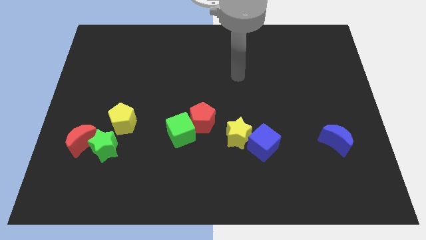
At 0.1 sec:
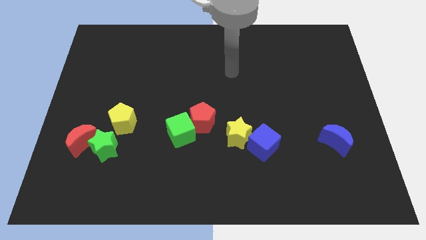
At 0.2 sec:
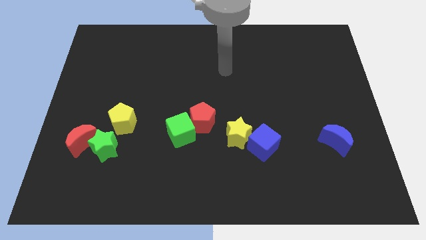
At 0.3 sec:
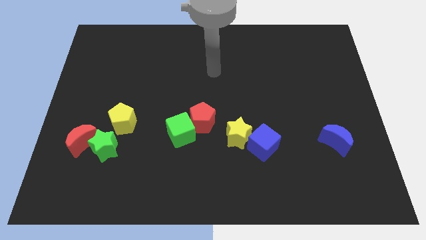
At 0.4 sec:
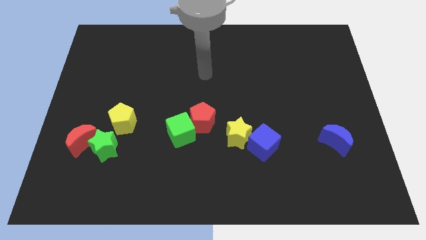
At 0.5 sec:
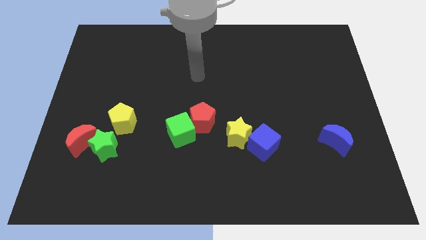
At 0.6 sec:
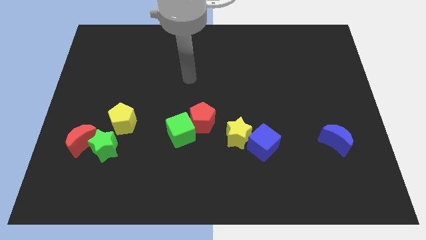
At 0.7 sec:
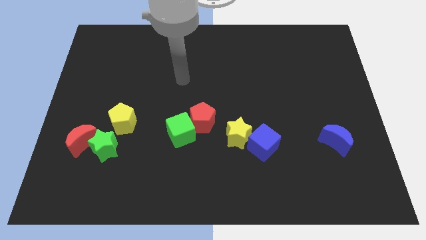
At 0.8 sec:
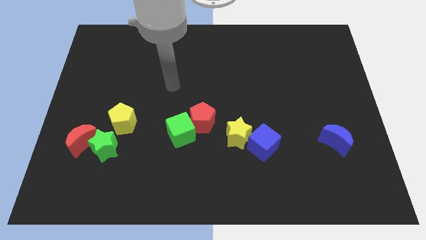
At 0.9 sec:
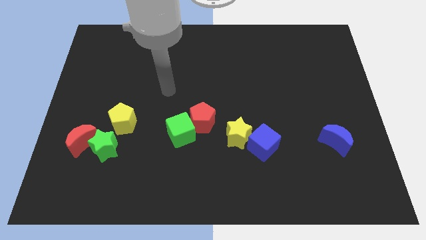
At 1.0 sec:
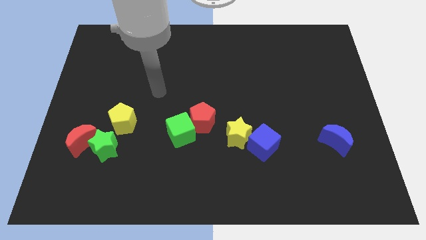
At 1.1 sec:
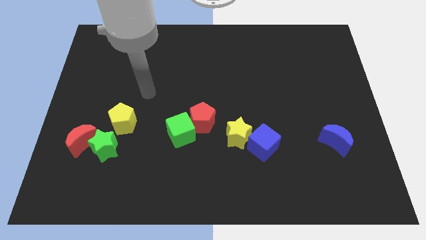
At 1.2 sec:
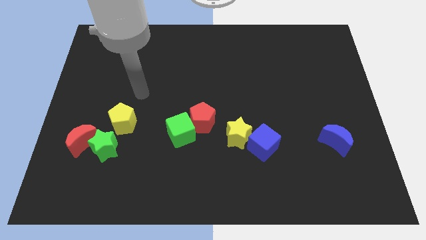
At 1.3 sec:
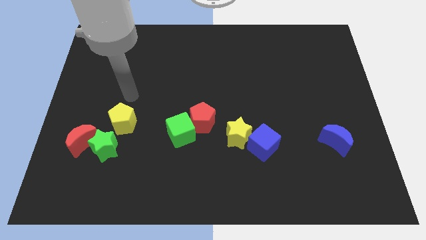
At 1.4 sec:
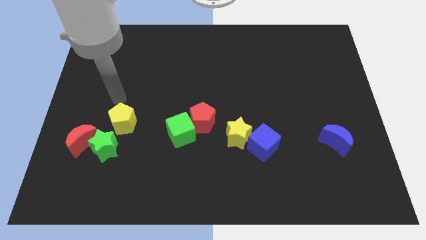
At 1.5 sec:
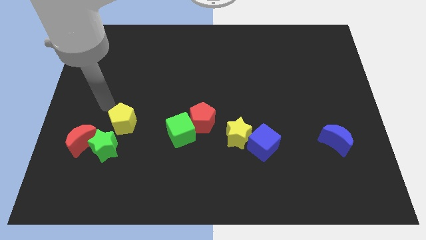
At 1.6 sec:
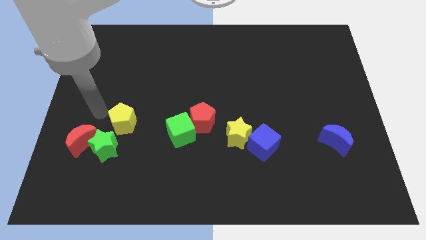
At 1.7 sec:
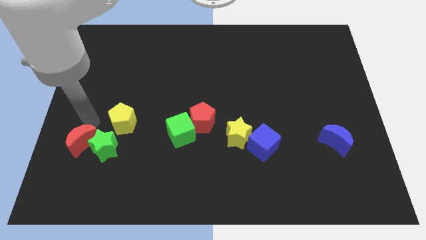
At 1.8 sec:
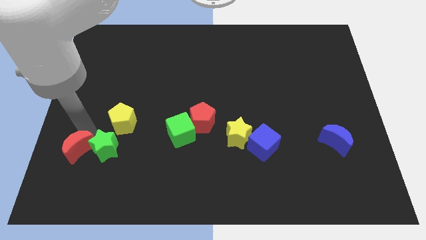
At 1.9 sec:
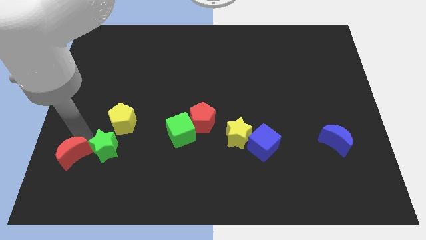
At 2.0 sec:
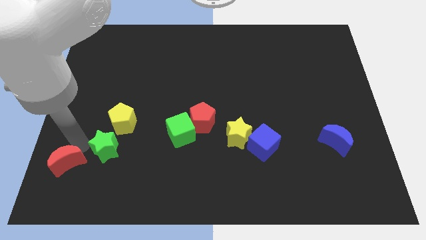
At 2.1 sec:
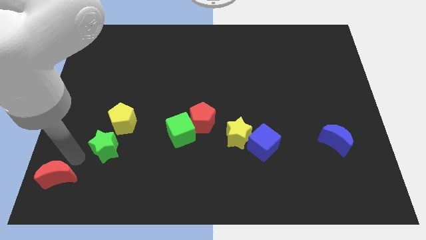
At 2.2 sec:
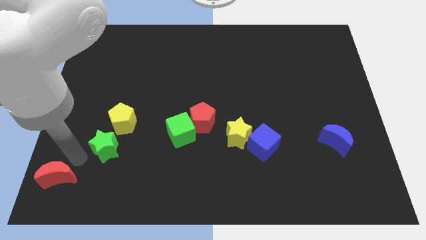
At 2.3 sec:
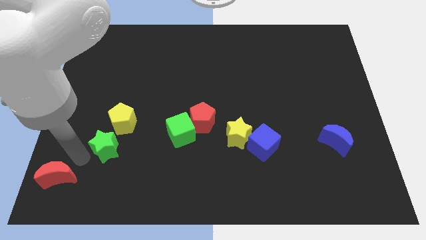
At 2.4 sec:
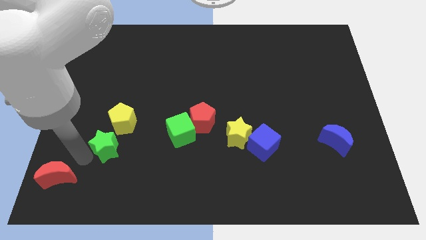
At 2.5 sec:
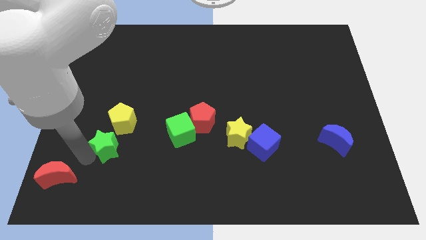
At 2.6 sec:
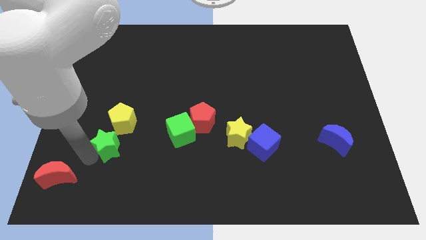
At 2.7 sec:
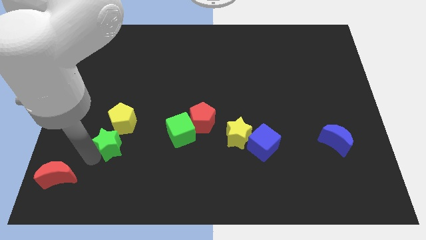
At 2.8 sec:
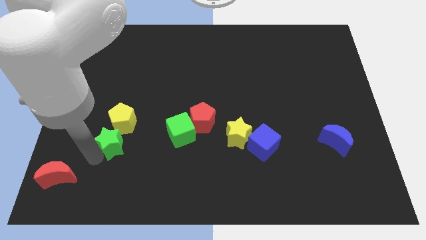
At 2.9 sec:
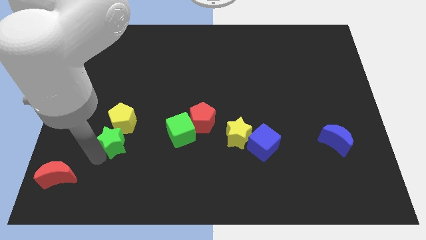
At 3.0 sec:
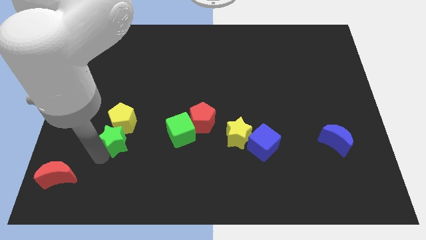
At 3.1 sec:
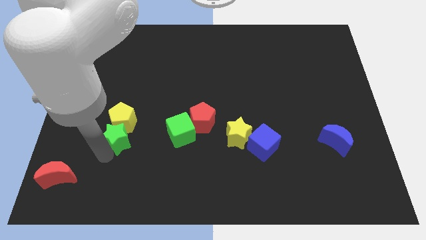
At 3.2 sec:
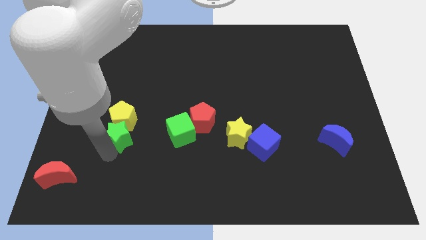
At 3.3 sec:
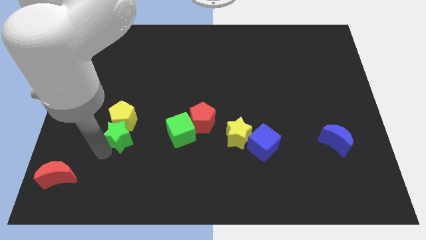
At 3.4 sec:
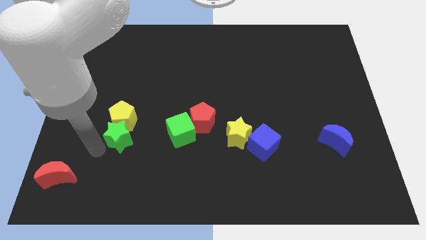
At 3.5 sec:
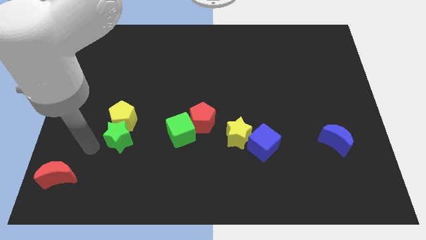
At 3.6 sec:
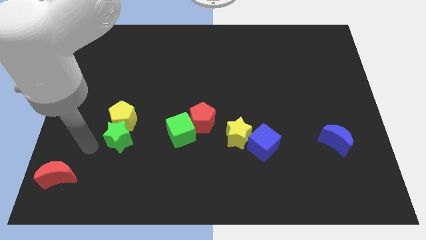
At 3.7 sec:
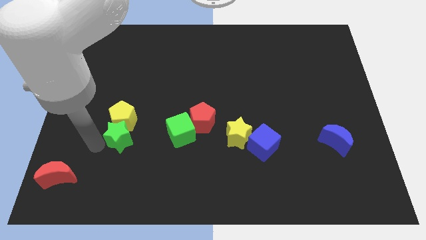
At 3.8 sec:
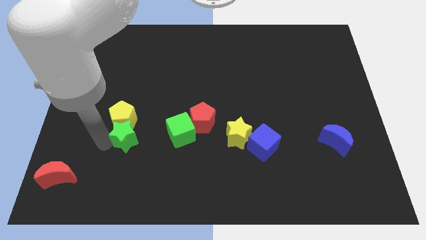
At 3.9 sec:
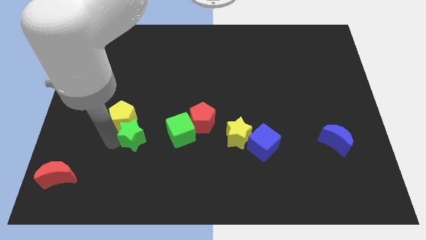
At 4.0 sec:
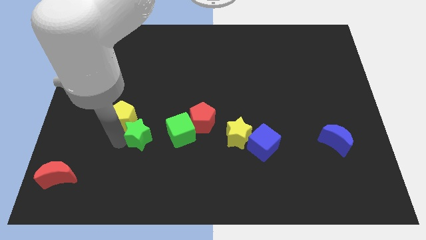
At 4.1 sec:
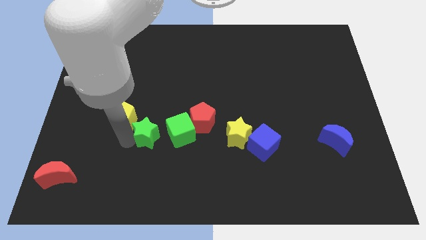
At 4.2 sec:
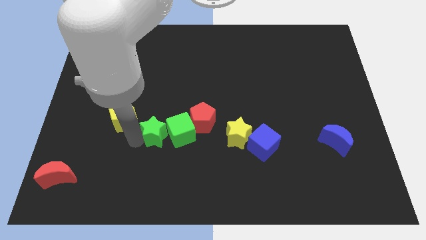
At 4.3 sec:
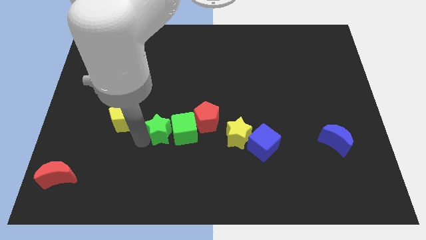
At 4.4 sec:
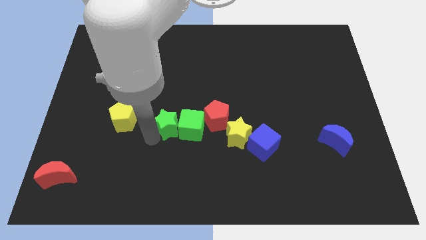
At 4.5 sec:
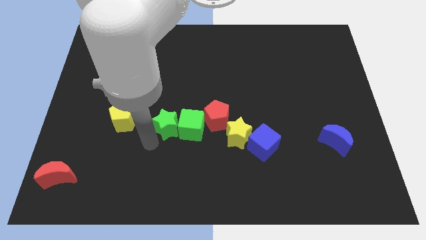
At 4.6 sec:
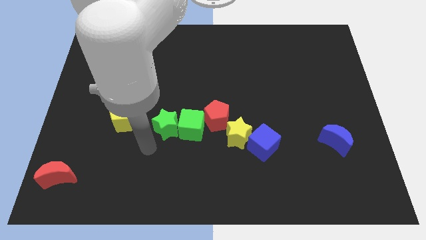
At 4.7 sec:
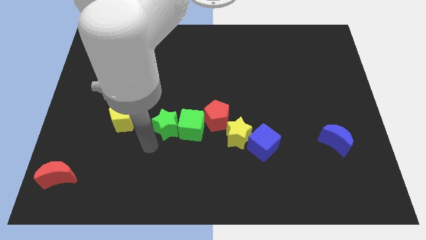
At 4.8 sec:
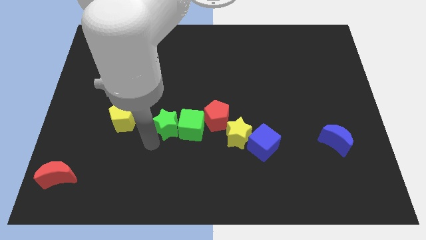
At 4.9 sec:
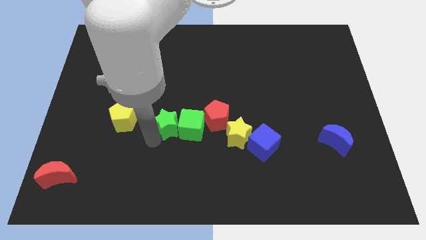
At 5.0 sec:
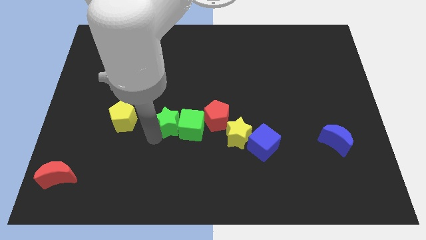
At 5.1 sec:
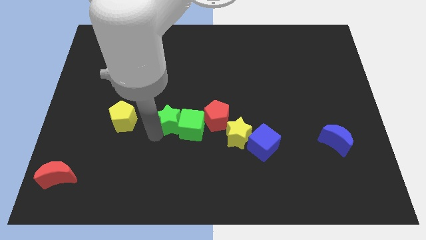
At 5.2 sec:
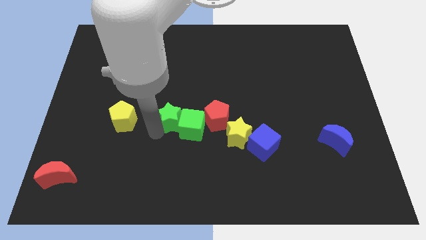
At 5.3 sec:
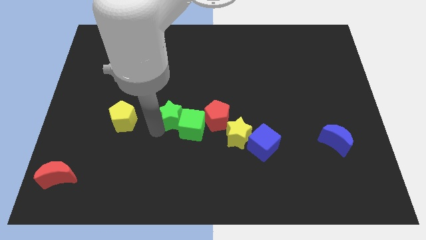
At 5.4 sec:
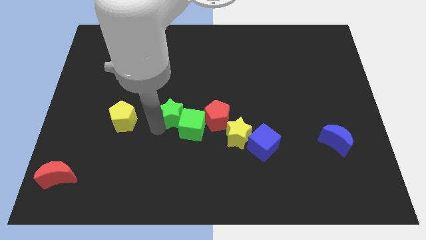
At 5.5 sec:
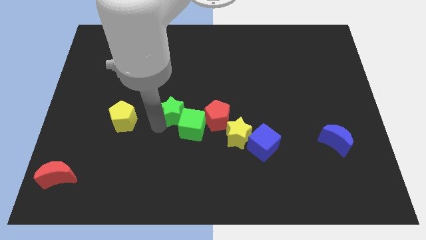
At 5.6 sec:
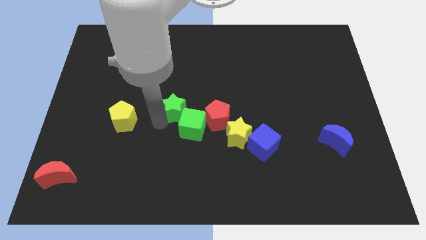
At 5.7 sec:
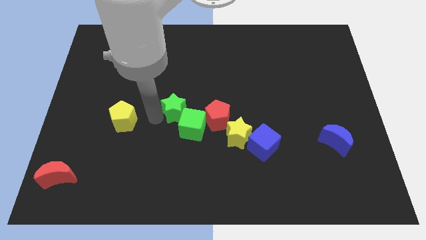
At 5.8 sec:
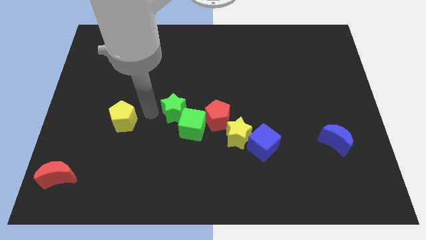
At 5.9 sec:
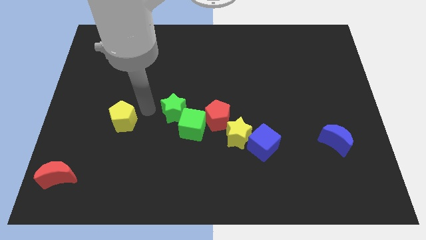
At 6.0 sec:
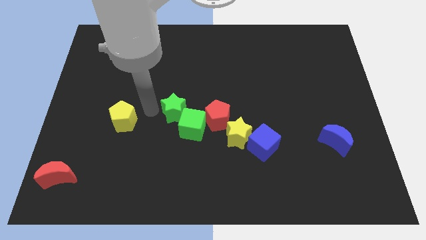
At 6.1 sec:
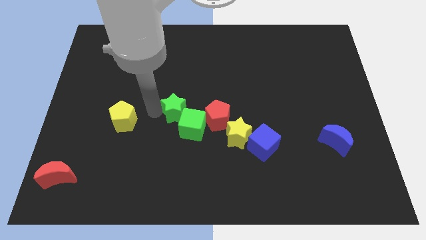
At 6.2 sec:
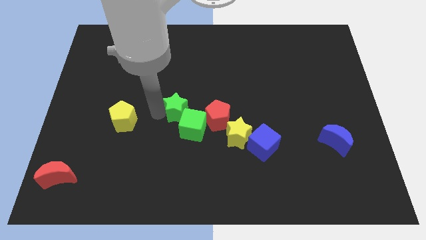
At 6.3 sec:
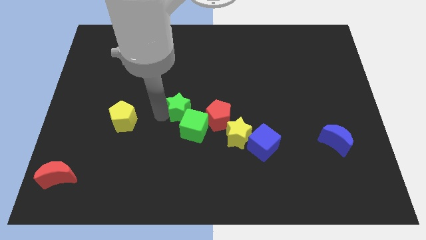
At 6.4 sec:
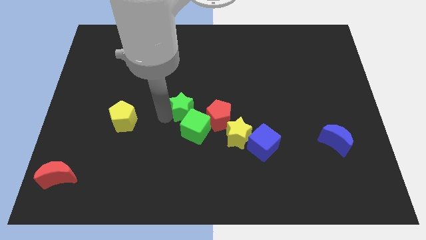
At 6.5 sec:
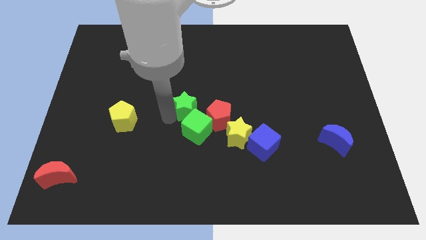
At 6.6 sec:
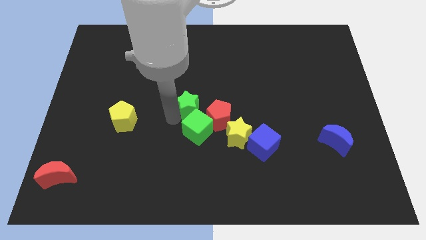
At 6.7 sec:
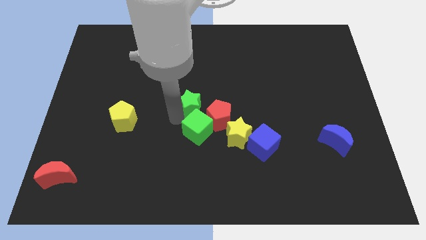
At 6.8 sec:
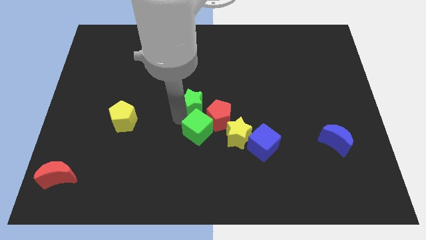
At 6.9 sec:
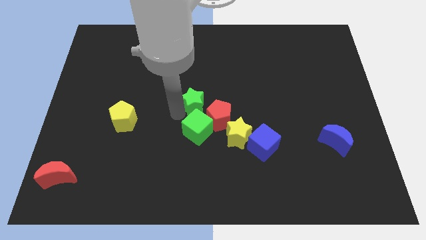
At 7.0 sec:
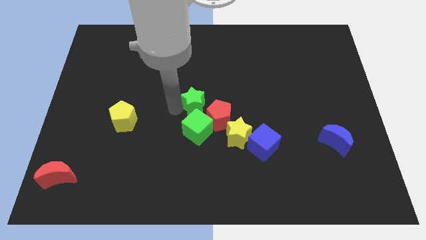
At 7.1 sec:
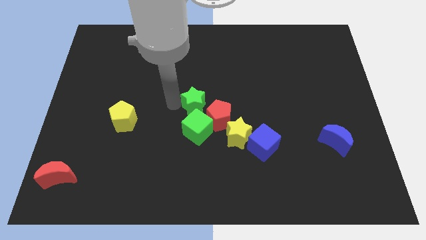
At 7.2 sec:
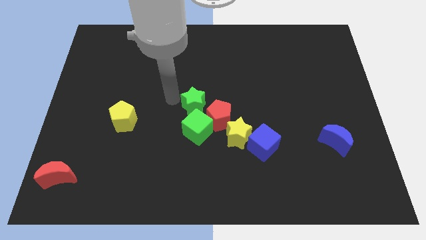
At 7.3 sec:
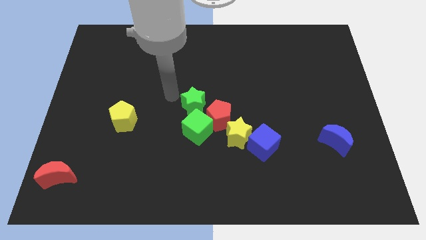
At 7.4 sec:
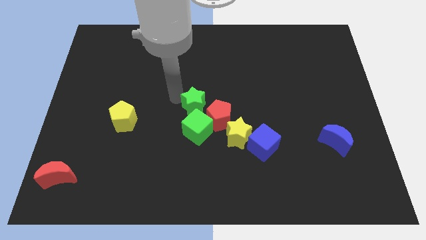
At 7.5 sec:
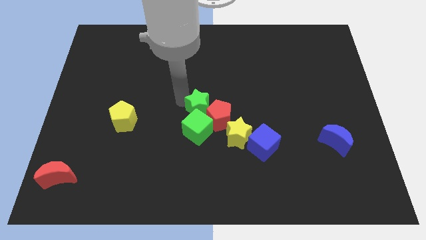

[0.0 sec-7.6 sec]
move the green star to the red pentagon
